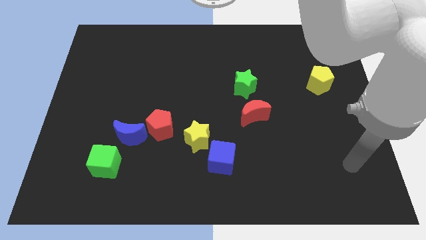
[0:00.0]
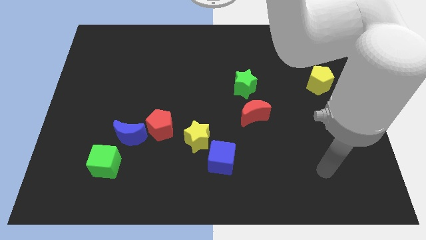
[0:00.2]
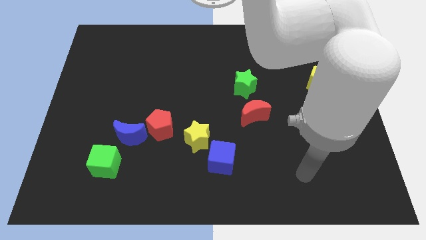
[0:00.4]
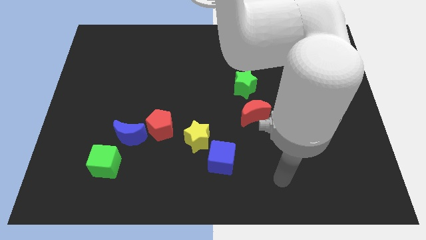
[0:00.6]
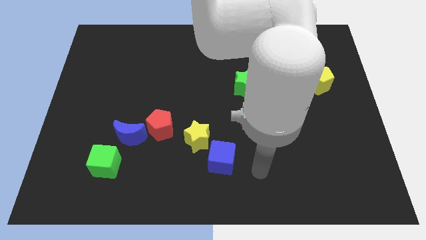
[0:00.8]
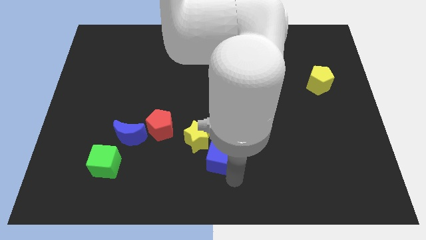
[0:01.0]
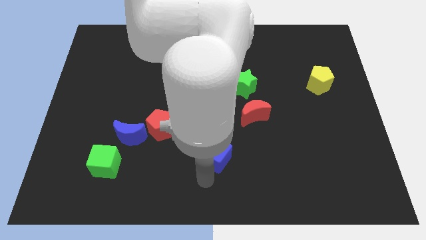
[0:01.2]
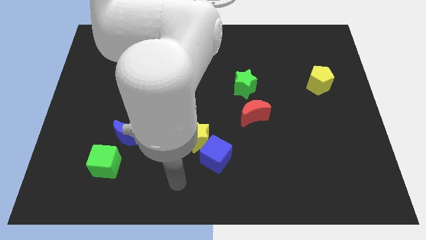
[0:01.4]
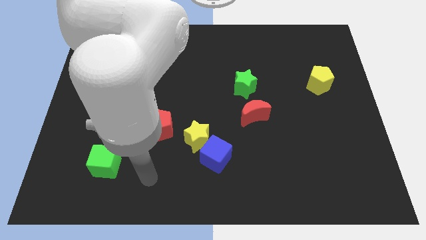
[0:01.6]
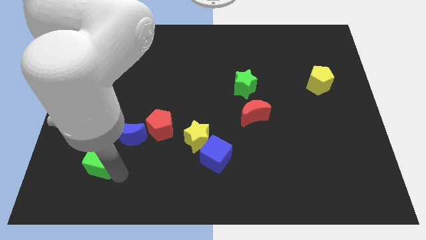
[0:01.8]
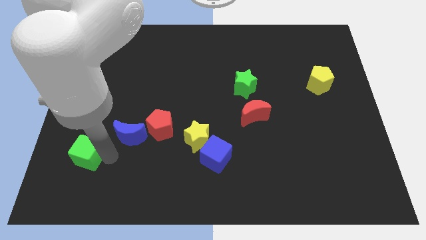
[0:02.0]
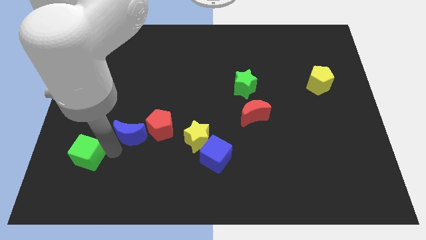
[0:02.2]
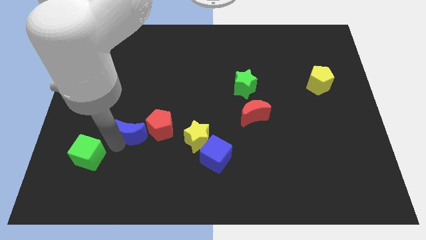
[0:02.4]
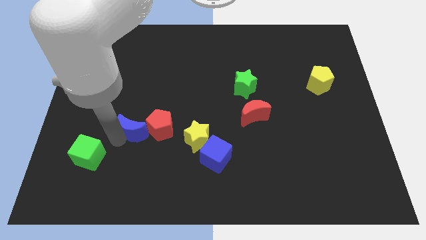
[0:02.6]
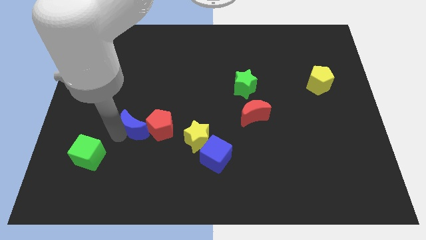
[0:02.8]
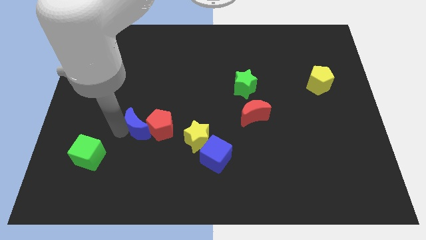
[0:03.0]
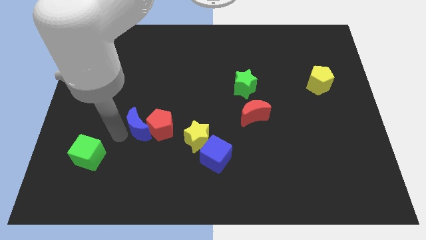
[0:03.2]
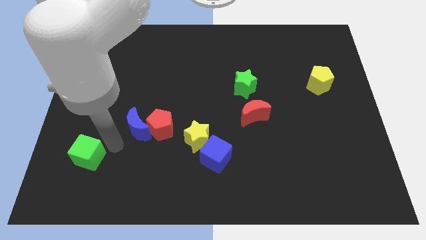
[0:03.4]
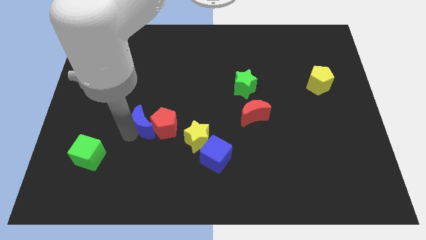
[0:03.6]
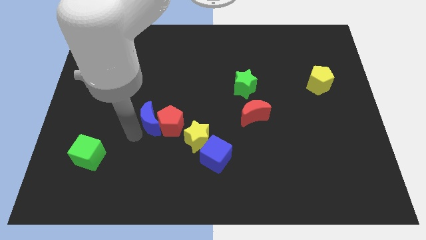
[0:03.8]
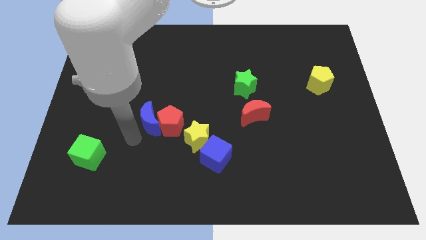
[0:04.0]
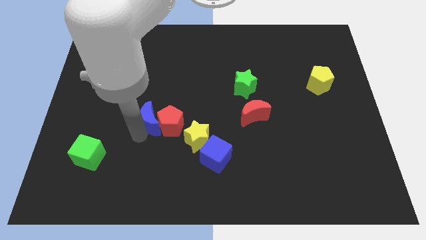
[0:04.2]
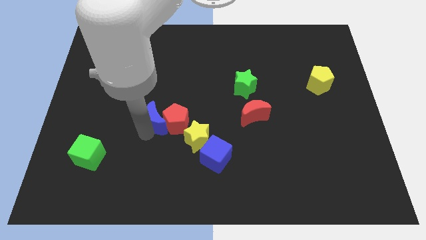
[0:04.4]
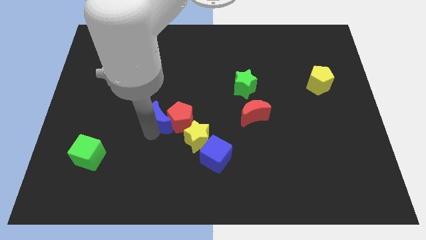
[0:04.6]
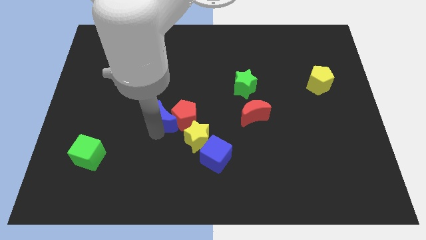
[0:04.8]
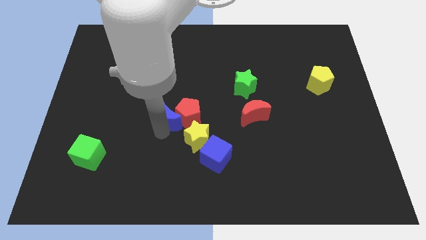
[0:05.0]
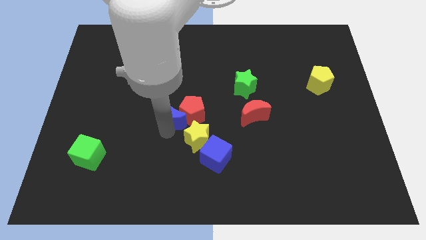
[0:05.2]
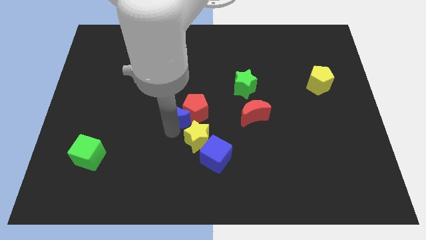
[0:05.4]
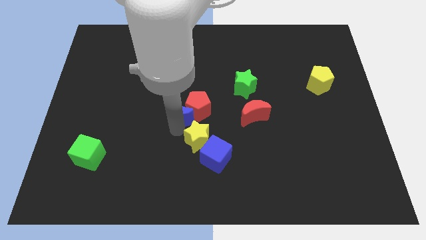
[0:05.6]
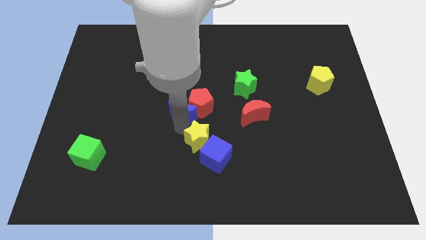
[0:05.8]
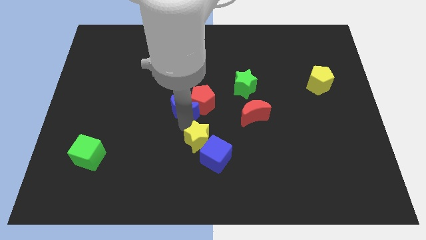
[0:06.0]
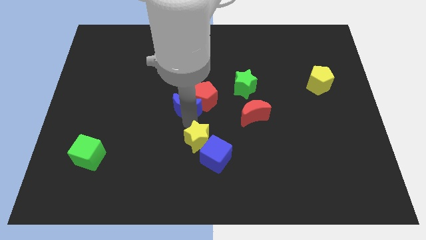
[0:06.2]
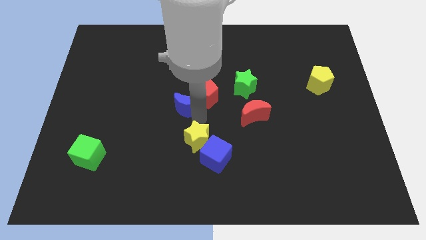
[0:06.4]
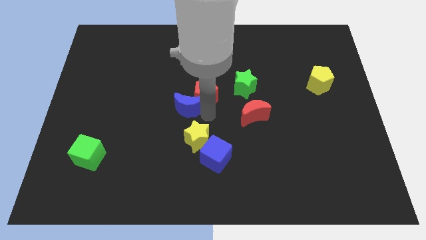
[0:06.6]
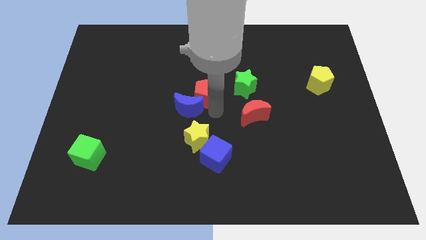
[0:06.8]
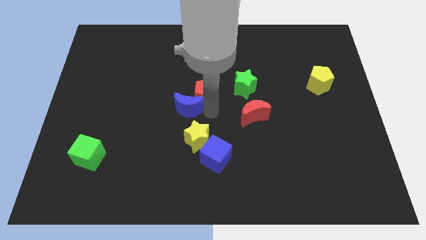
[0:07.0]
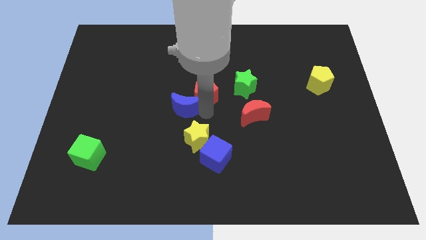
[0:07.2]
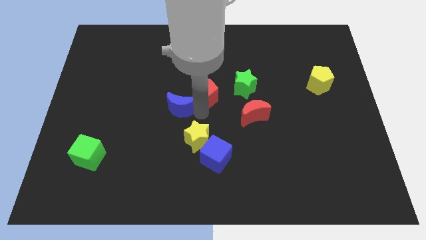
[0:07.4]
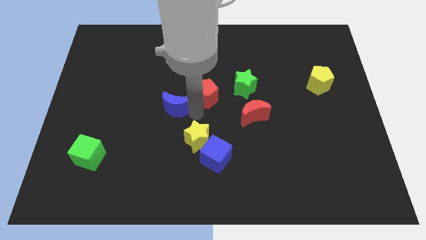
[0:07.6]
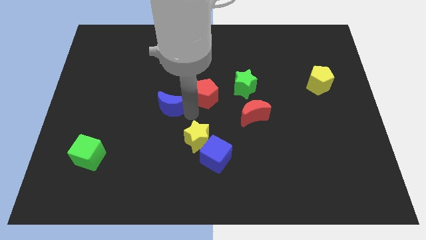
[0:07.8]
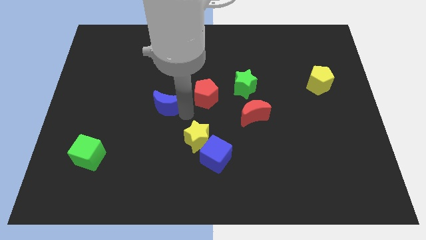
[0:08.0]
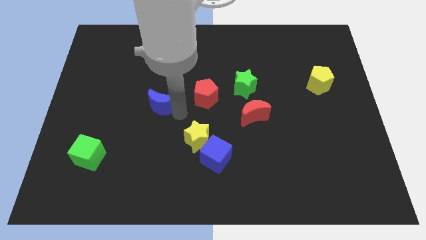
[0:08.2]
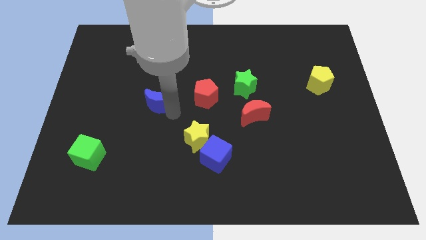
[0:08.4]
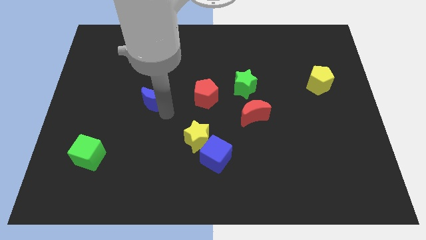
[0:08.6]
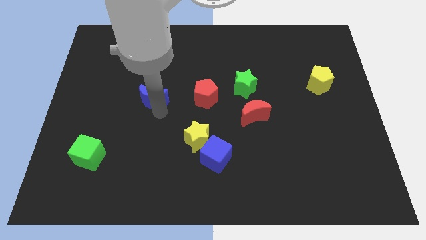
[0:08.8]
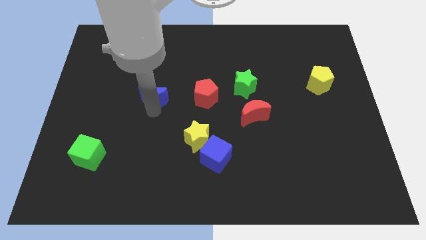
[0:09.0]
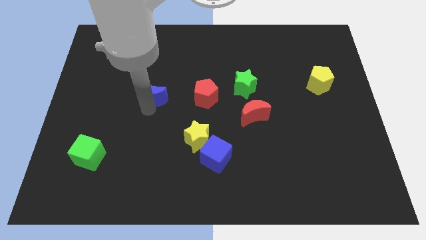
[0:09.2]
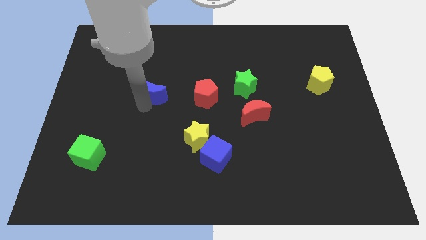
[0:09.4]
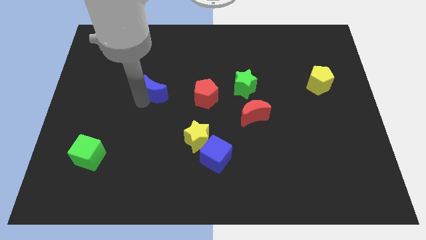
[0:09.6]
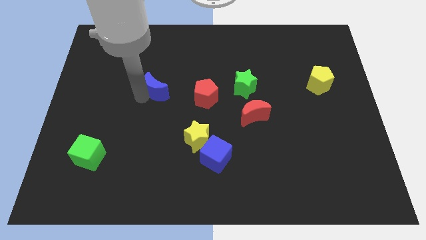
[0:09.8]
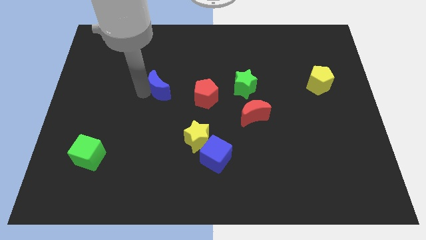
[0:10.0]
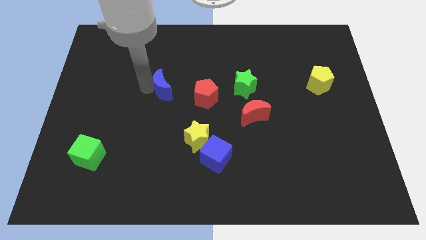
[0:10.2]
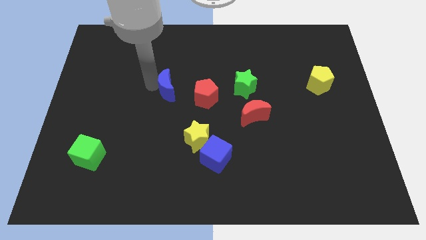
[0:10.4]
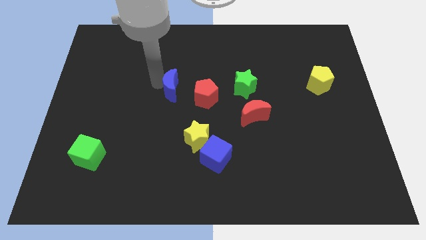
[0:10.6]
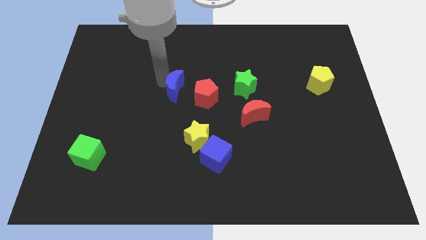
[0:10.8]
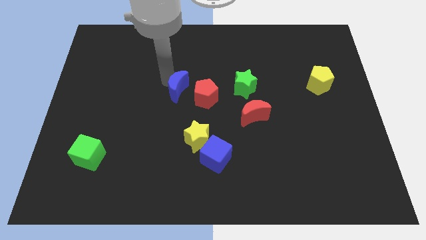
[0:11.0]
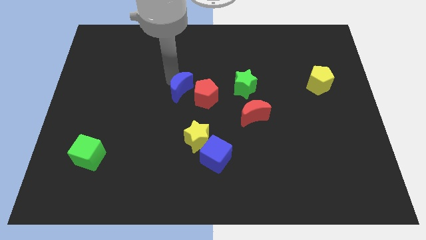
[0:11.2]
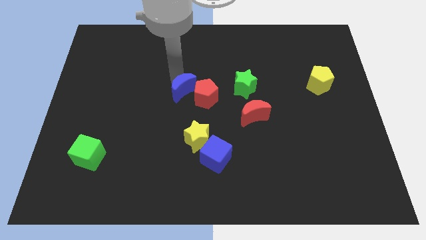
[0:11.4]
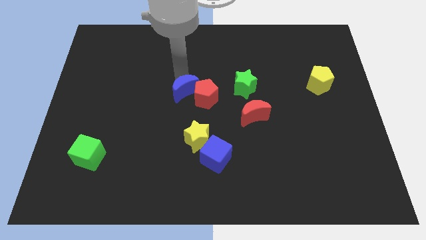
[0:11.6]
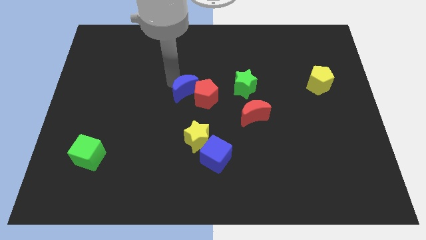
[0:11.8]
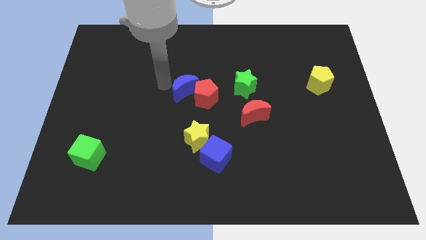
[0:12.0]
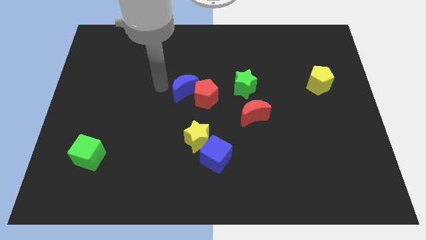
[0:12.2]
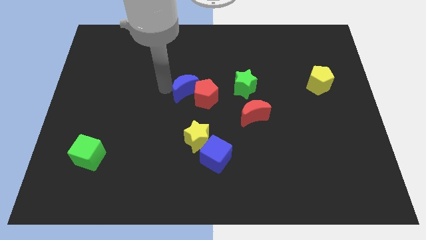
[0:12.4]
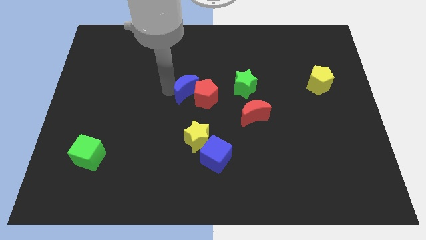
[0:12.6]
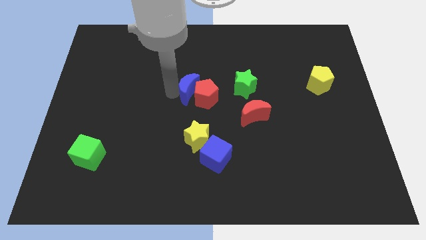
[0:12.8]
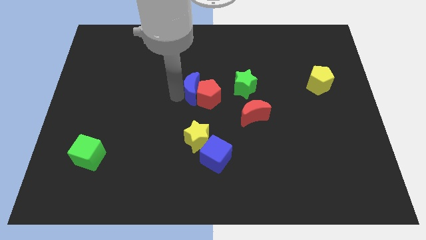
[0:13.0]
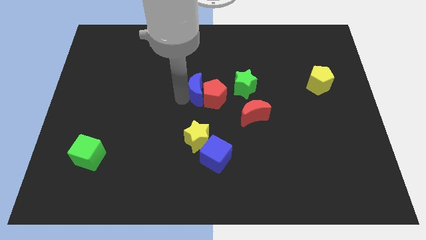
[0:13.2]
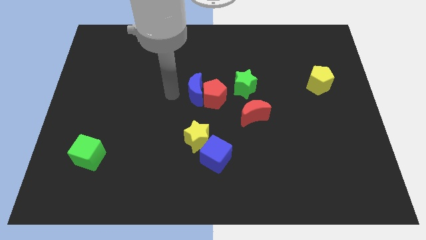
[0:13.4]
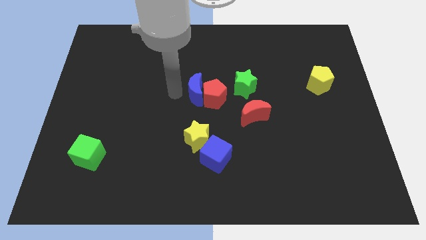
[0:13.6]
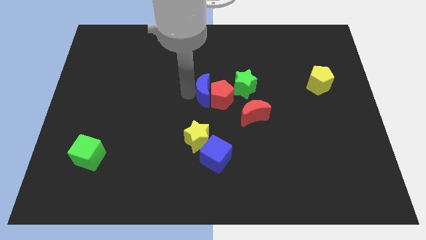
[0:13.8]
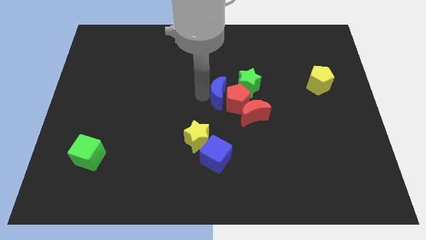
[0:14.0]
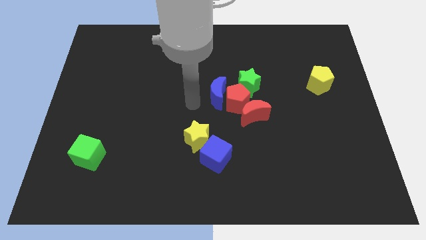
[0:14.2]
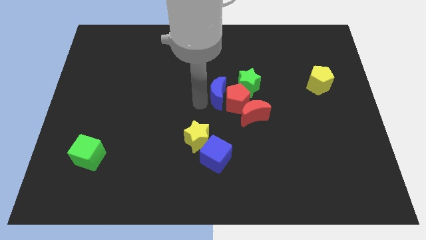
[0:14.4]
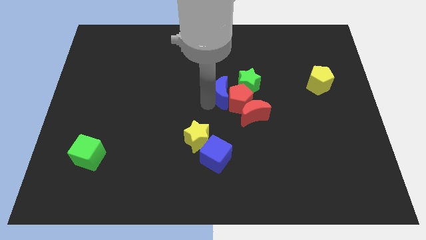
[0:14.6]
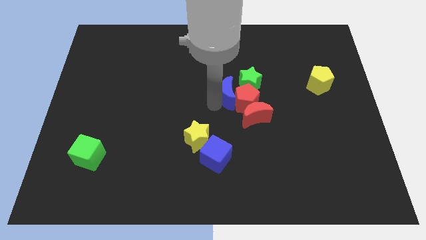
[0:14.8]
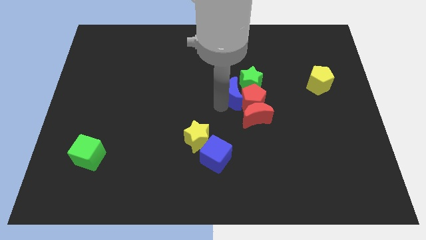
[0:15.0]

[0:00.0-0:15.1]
slide the blue moon close to the green star

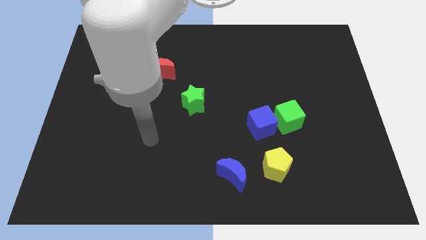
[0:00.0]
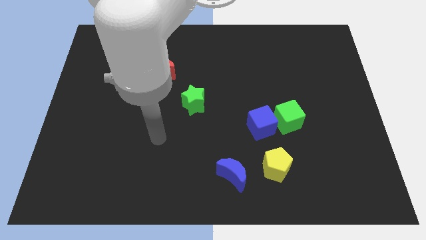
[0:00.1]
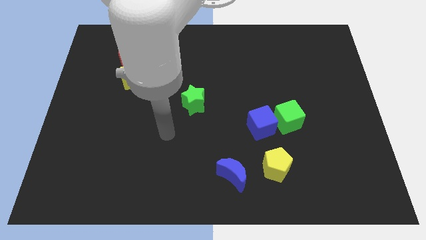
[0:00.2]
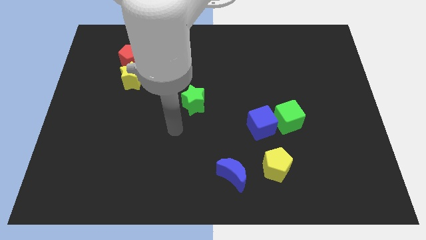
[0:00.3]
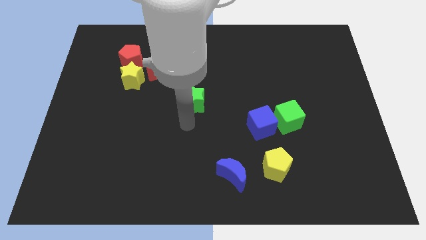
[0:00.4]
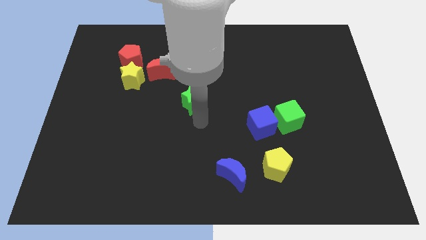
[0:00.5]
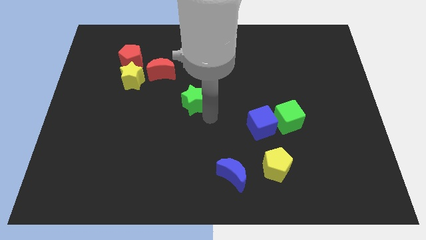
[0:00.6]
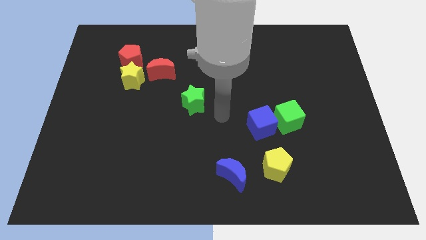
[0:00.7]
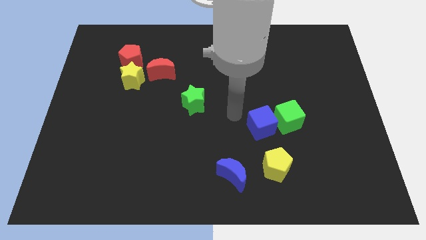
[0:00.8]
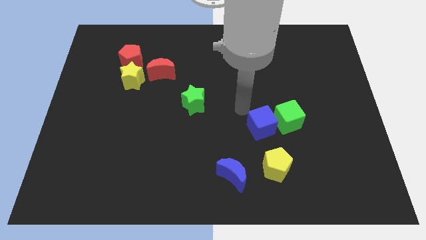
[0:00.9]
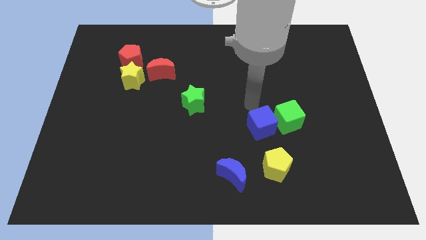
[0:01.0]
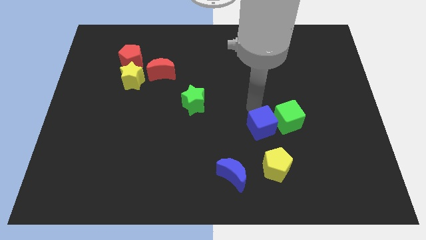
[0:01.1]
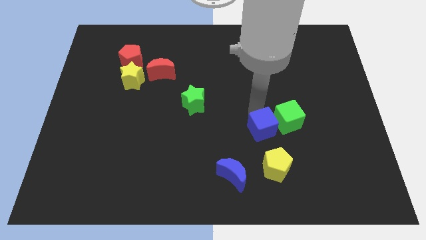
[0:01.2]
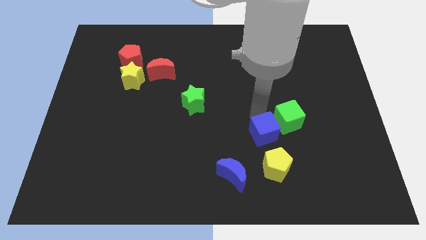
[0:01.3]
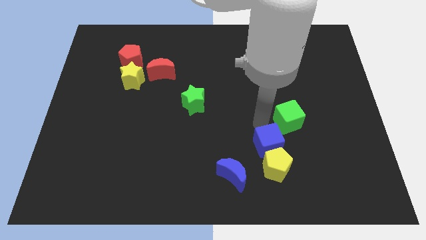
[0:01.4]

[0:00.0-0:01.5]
push the blue cube to the yellow pentagon
